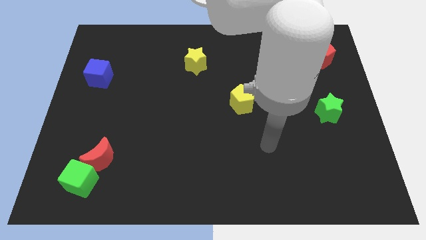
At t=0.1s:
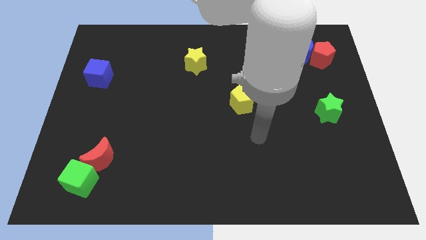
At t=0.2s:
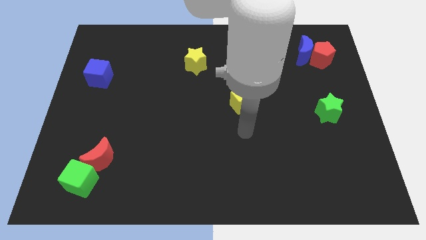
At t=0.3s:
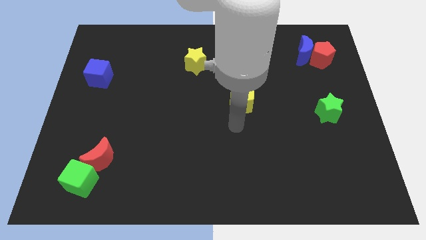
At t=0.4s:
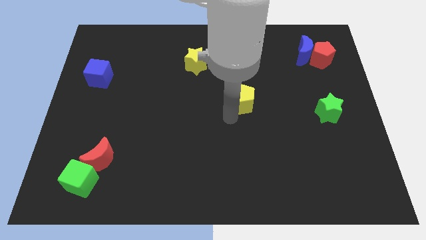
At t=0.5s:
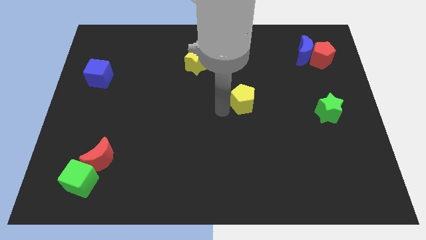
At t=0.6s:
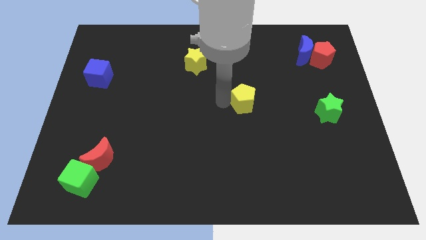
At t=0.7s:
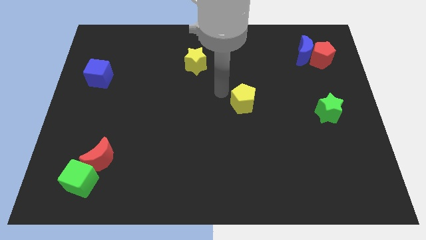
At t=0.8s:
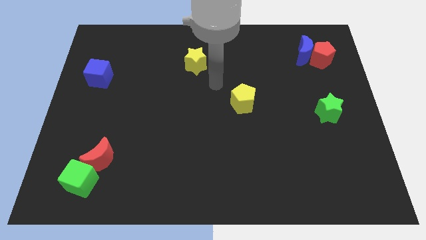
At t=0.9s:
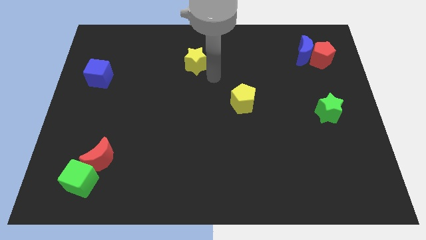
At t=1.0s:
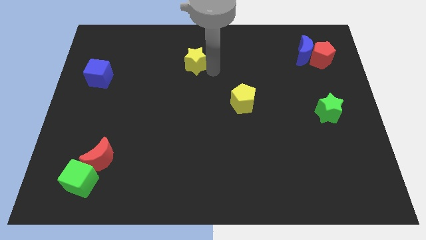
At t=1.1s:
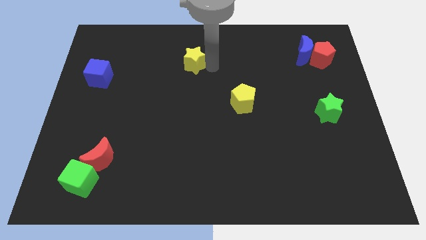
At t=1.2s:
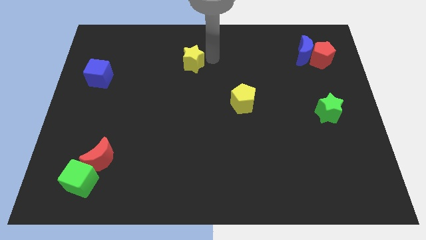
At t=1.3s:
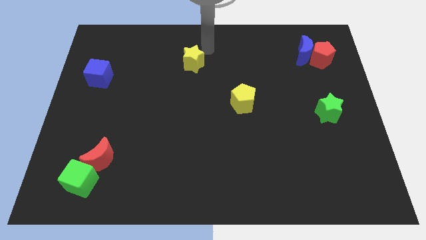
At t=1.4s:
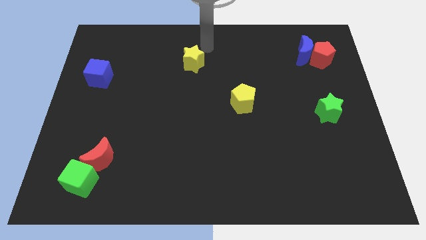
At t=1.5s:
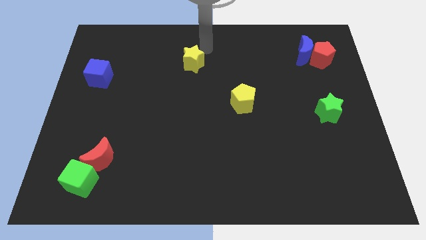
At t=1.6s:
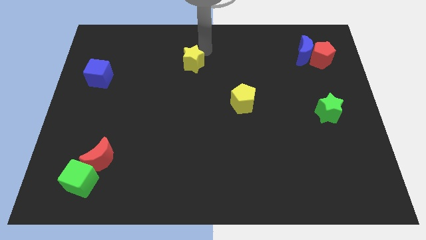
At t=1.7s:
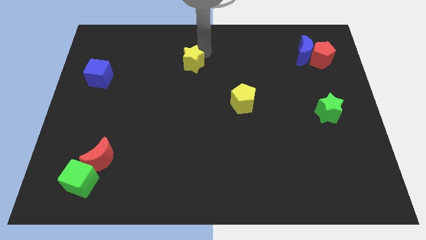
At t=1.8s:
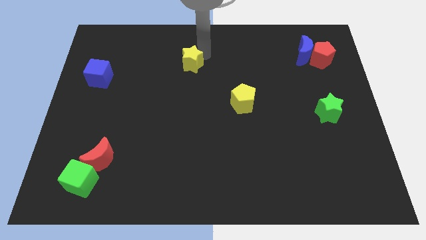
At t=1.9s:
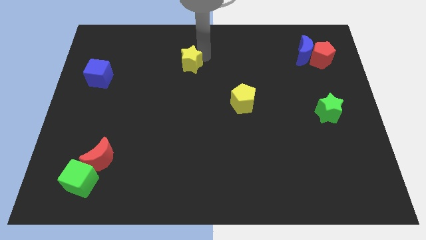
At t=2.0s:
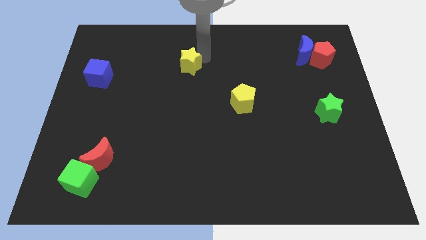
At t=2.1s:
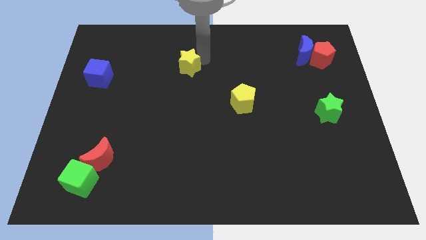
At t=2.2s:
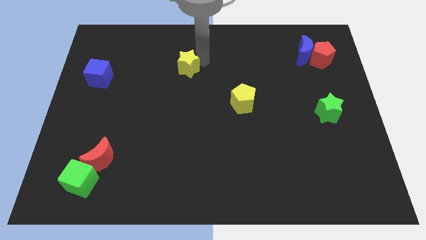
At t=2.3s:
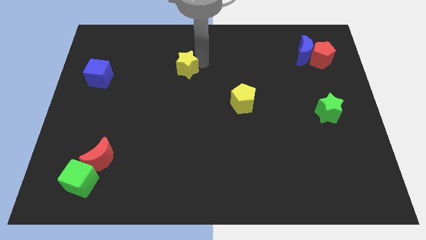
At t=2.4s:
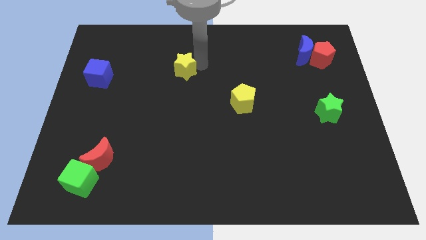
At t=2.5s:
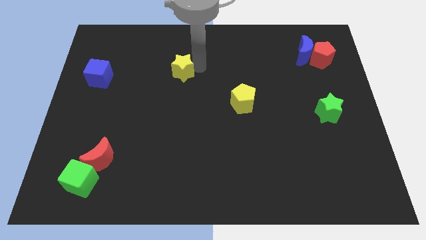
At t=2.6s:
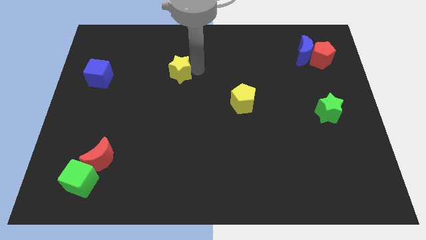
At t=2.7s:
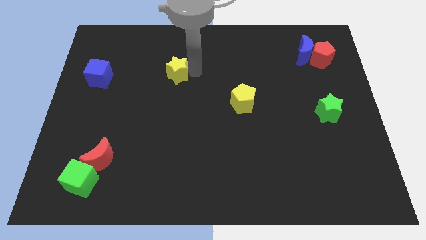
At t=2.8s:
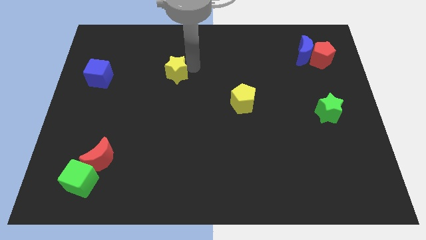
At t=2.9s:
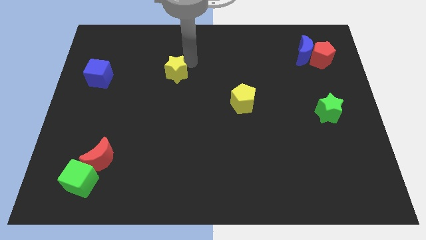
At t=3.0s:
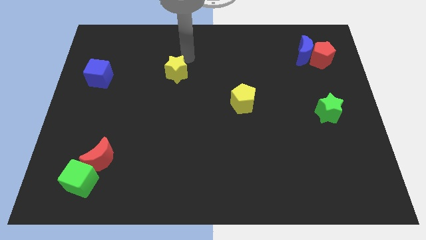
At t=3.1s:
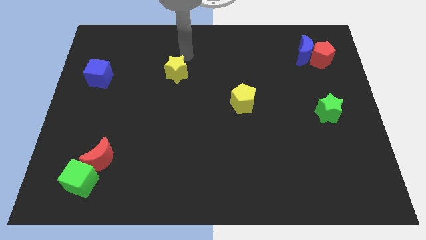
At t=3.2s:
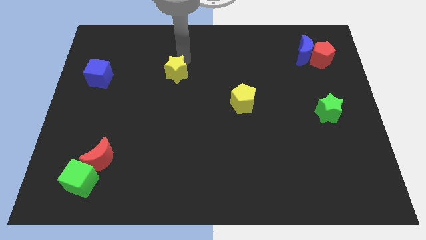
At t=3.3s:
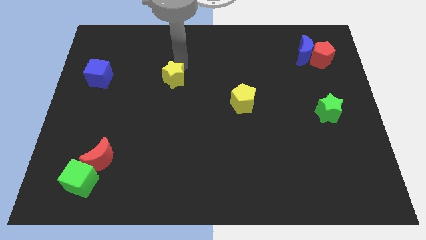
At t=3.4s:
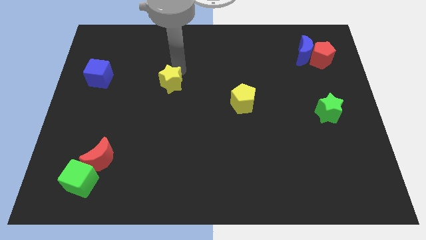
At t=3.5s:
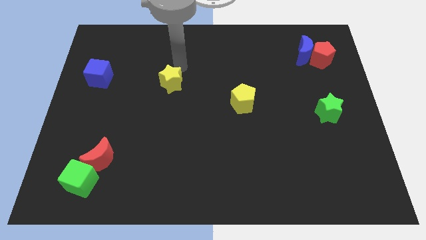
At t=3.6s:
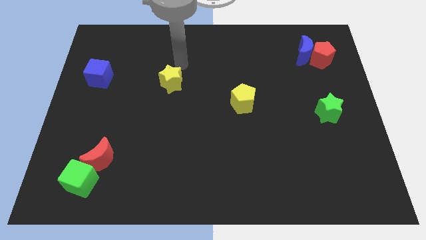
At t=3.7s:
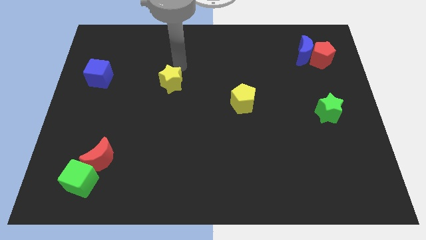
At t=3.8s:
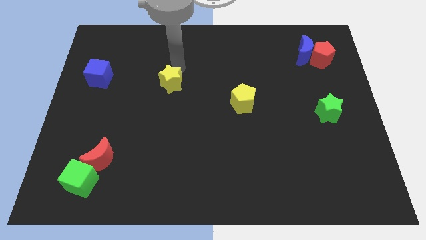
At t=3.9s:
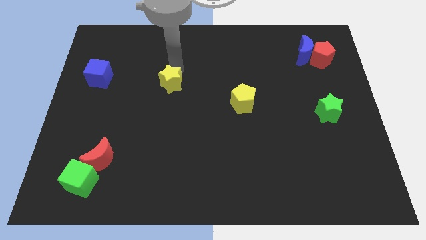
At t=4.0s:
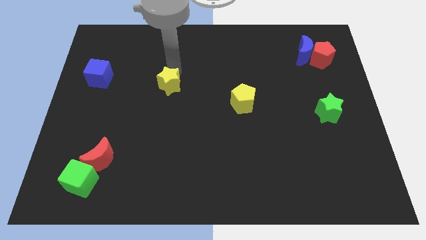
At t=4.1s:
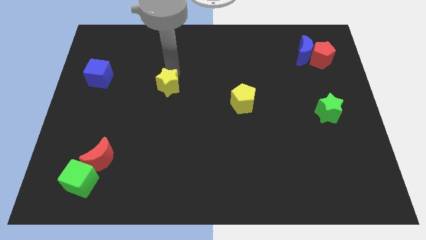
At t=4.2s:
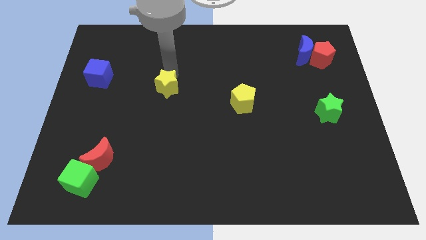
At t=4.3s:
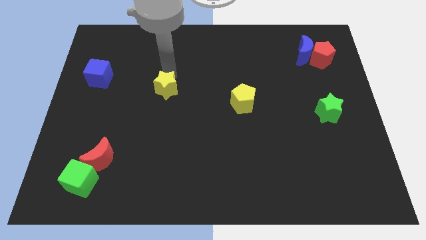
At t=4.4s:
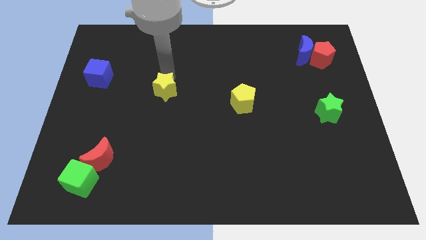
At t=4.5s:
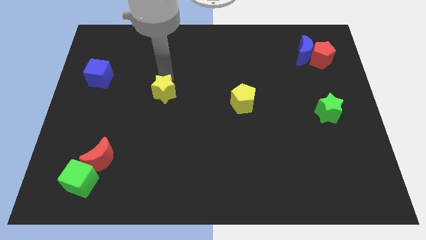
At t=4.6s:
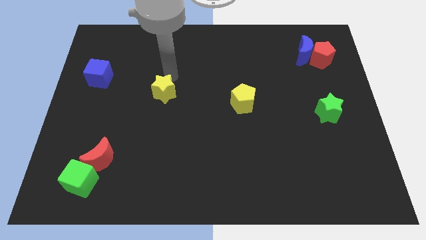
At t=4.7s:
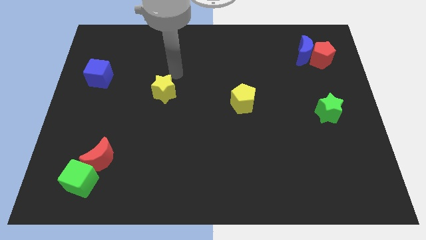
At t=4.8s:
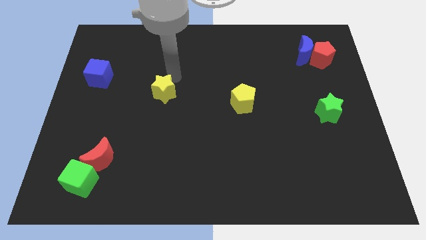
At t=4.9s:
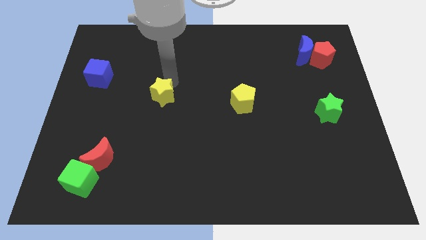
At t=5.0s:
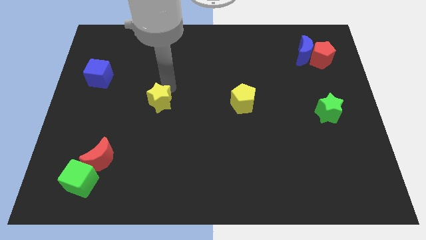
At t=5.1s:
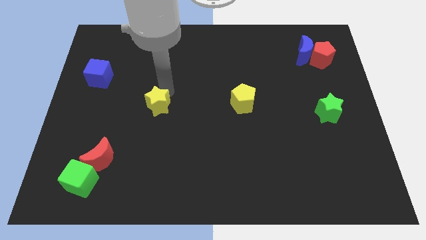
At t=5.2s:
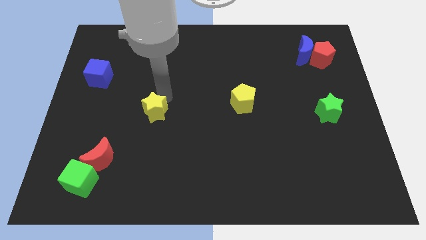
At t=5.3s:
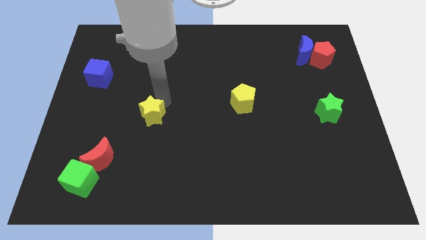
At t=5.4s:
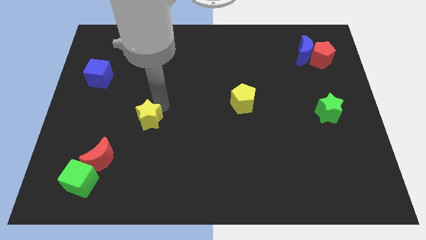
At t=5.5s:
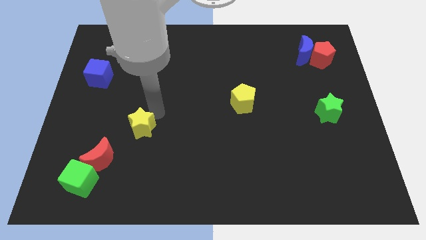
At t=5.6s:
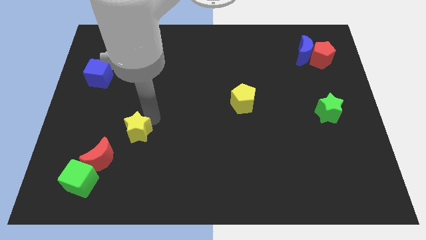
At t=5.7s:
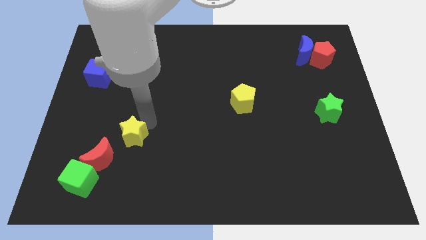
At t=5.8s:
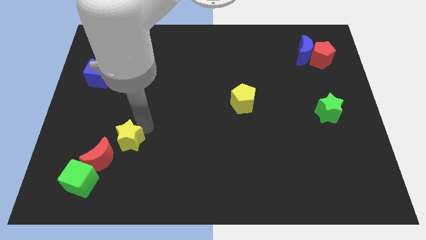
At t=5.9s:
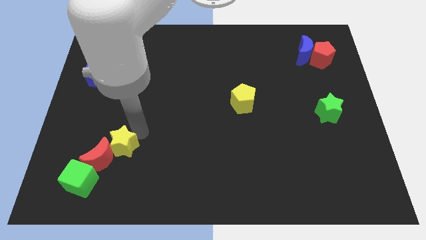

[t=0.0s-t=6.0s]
slide the yellow star close to the red moon
